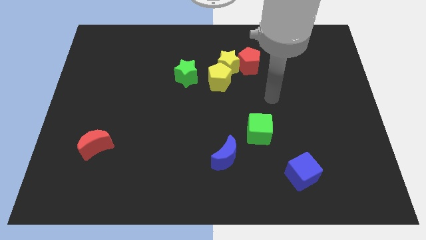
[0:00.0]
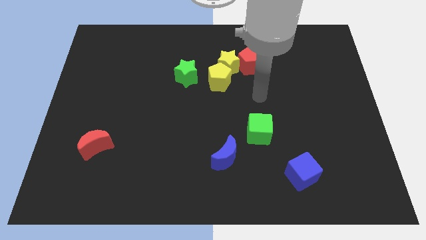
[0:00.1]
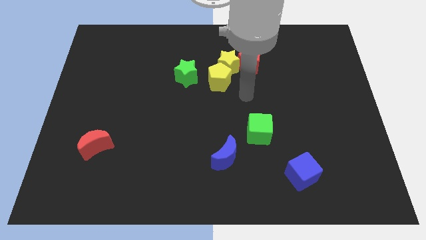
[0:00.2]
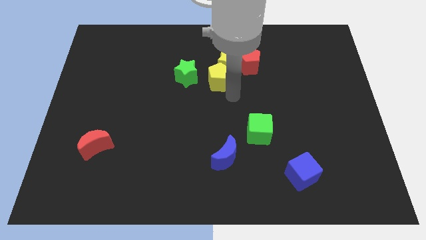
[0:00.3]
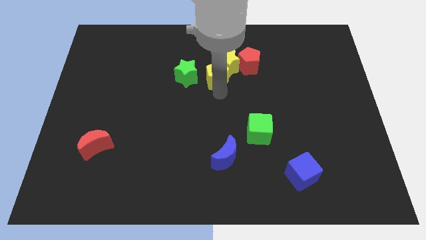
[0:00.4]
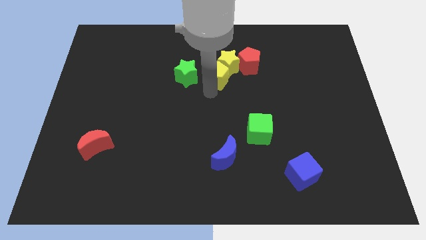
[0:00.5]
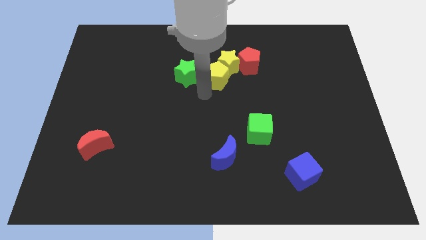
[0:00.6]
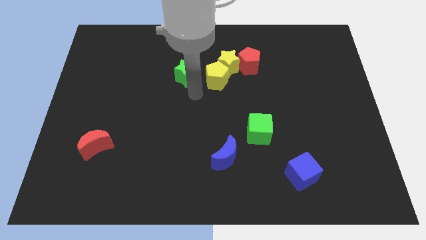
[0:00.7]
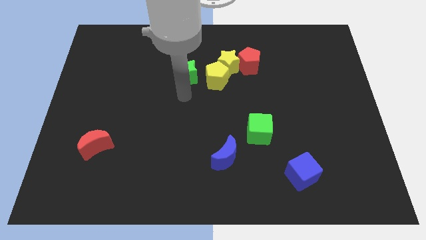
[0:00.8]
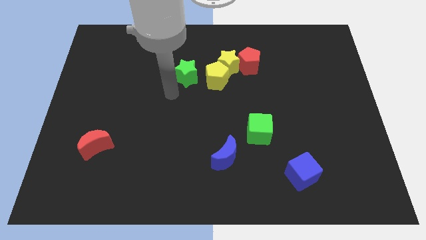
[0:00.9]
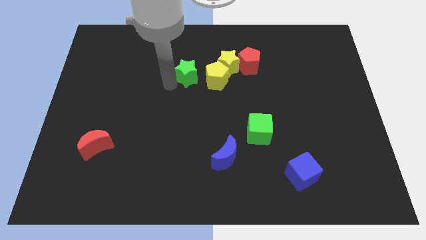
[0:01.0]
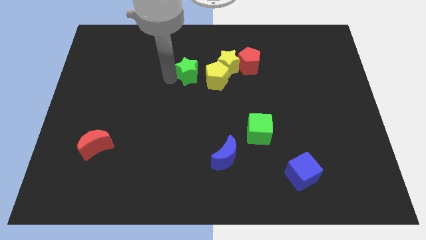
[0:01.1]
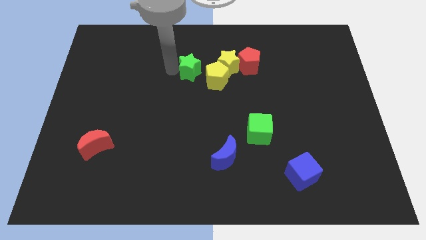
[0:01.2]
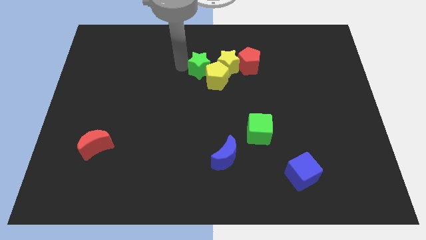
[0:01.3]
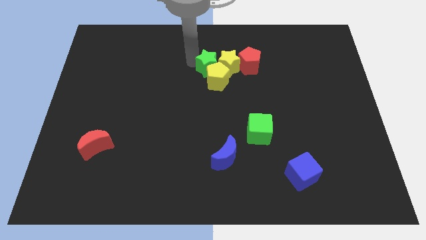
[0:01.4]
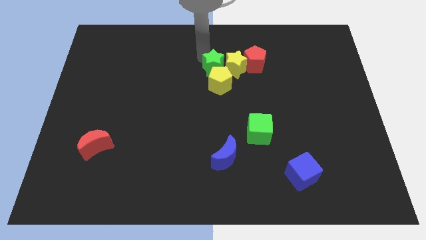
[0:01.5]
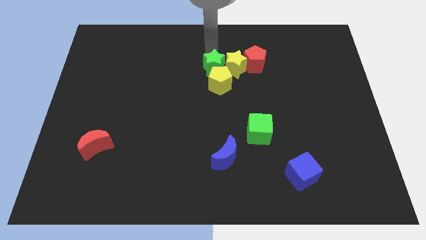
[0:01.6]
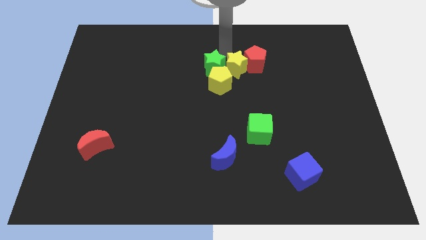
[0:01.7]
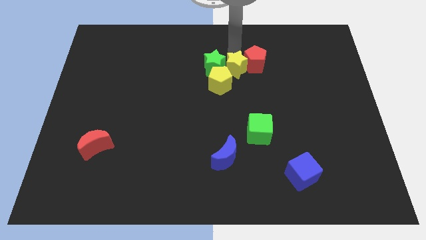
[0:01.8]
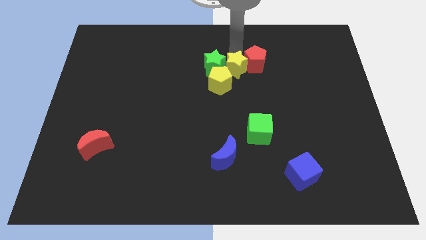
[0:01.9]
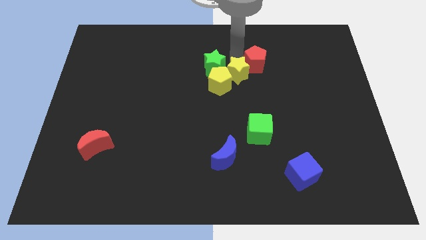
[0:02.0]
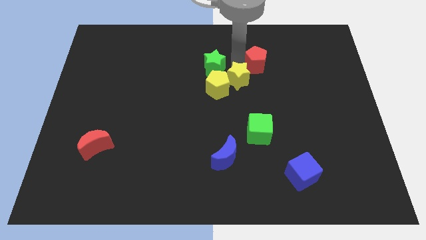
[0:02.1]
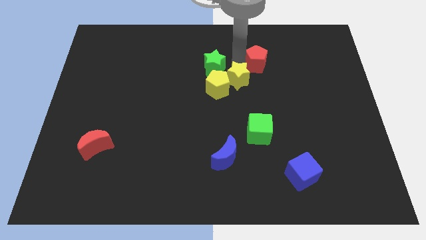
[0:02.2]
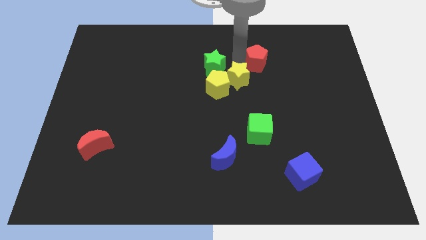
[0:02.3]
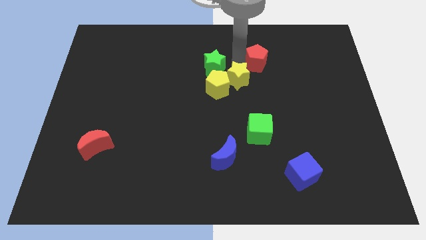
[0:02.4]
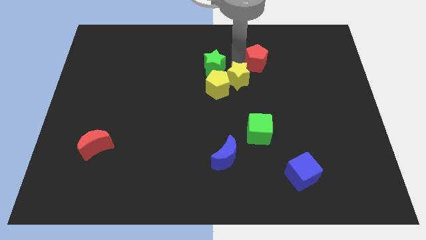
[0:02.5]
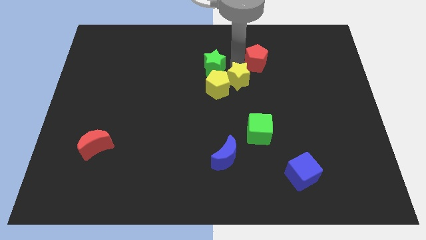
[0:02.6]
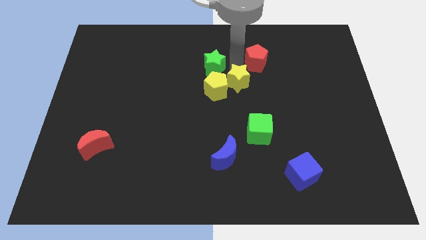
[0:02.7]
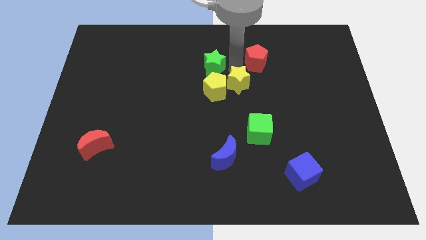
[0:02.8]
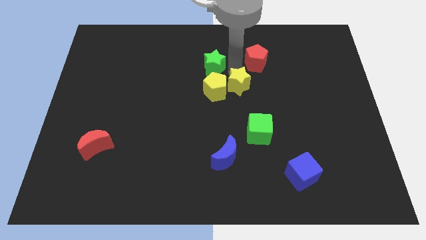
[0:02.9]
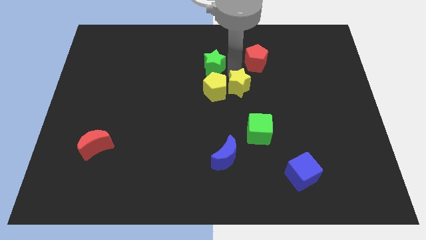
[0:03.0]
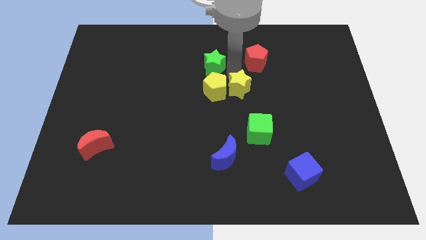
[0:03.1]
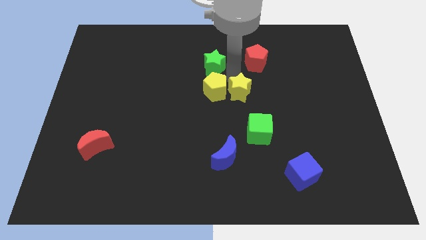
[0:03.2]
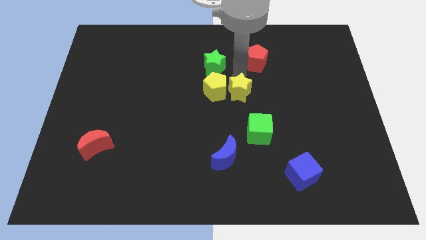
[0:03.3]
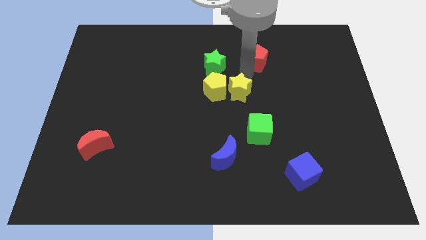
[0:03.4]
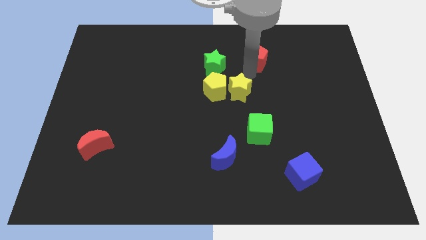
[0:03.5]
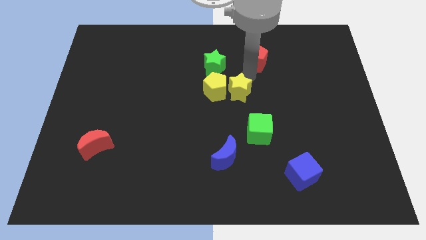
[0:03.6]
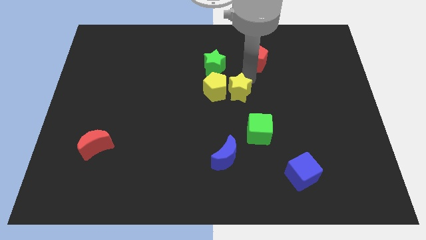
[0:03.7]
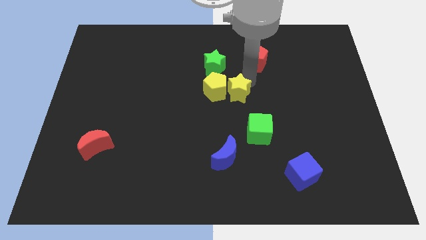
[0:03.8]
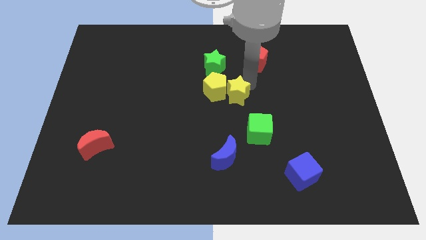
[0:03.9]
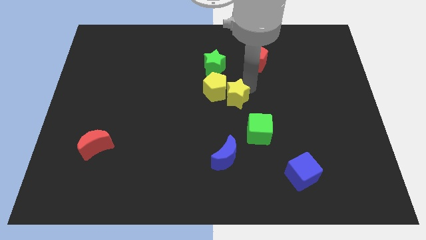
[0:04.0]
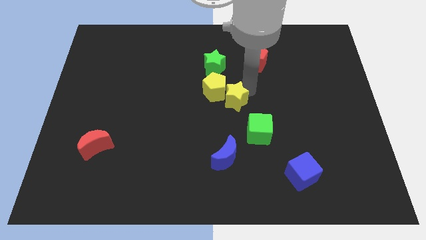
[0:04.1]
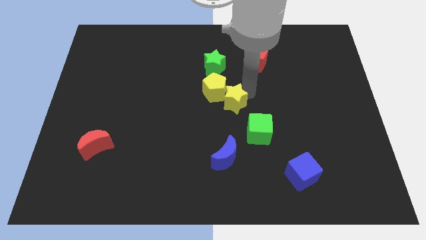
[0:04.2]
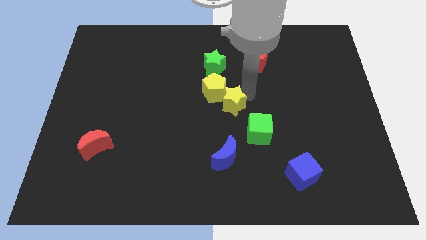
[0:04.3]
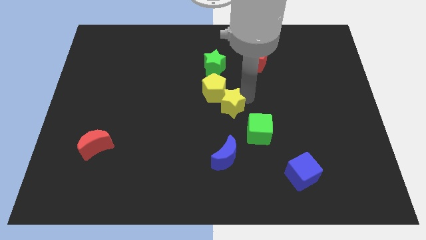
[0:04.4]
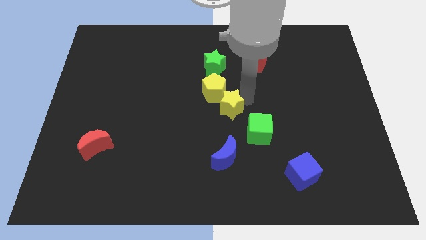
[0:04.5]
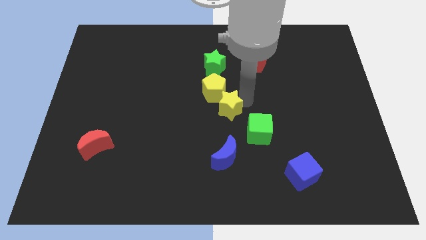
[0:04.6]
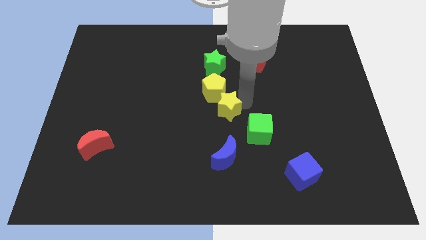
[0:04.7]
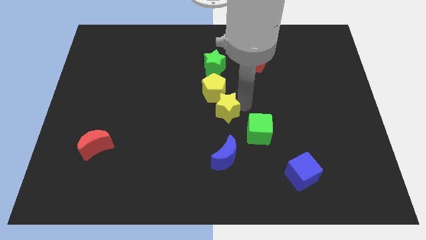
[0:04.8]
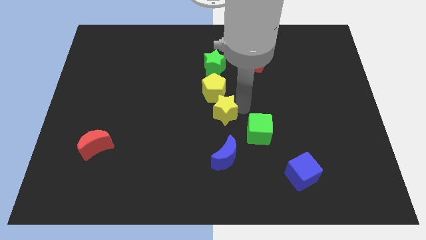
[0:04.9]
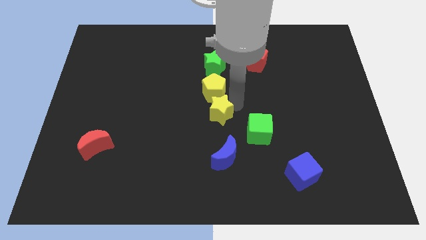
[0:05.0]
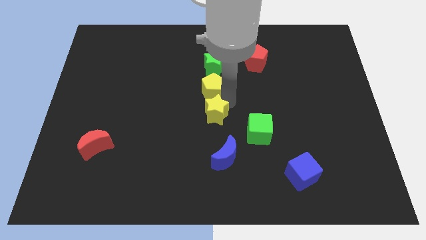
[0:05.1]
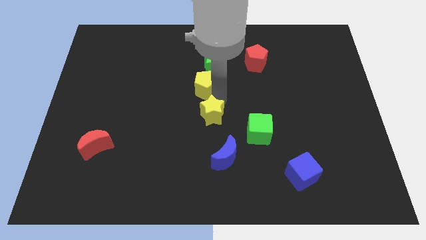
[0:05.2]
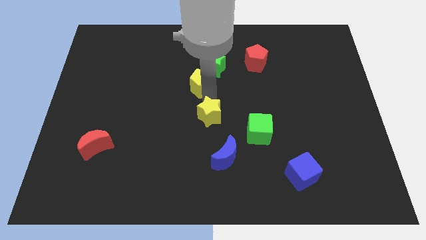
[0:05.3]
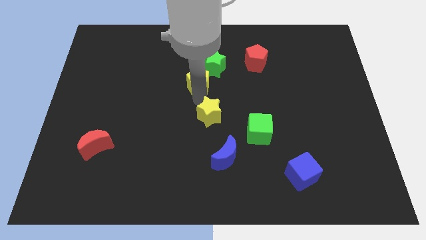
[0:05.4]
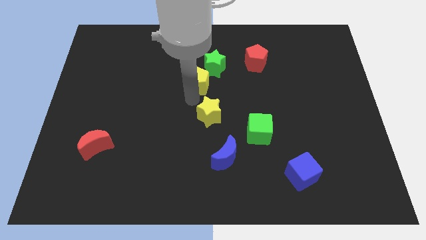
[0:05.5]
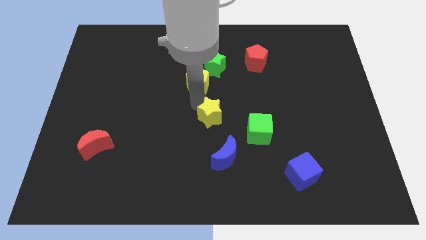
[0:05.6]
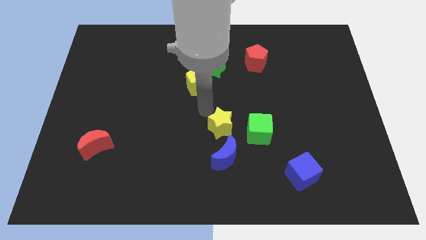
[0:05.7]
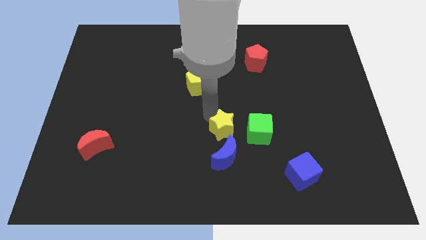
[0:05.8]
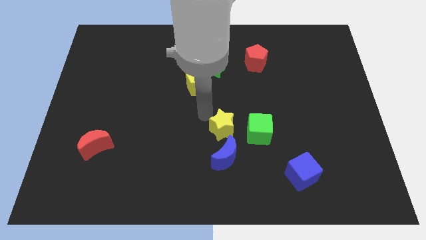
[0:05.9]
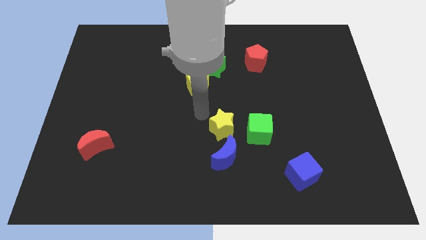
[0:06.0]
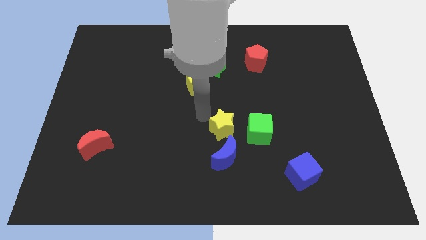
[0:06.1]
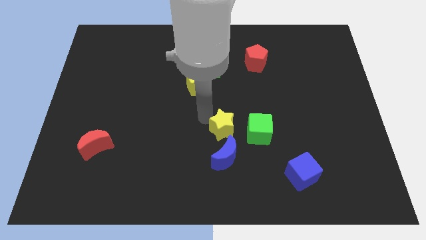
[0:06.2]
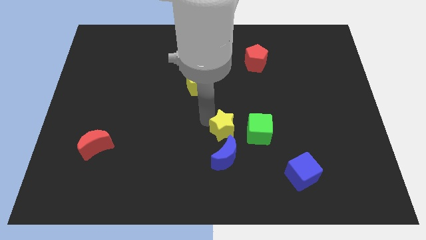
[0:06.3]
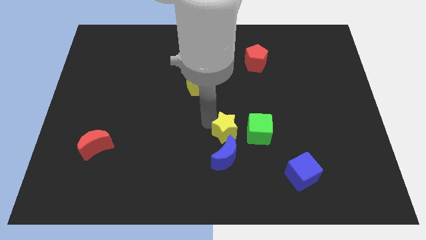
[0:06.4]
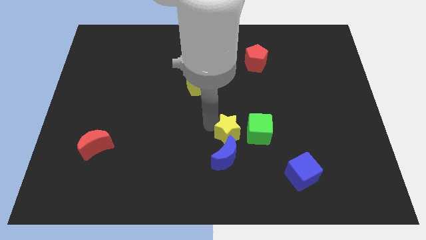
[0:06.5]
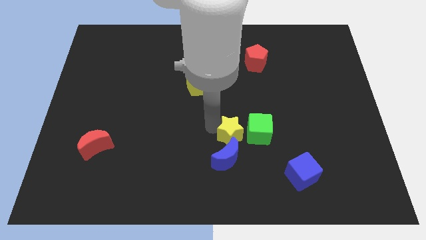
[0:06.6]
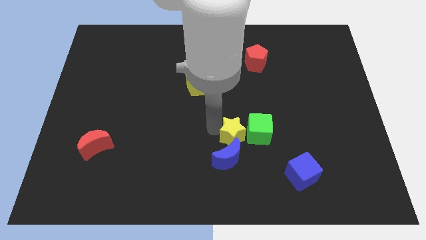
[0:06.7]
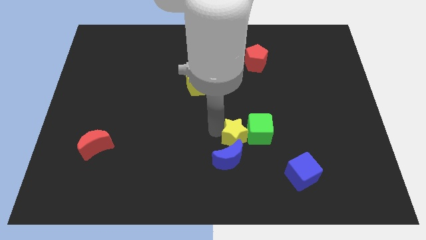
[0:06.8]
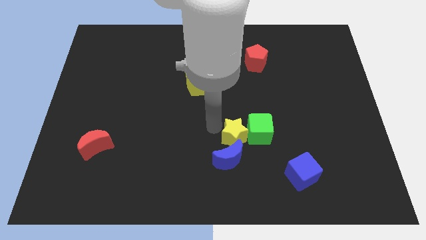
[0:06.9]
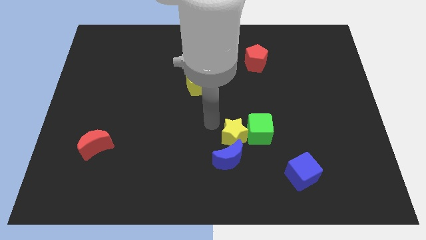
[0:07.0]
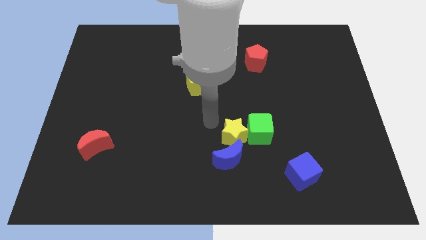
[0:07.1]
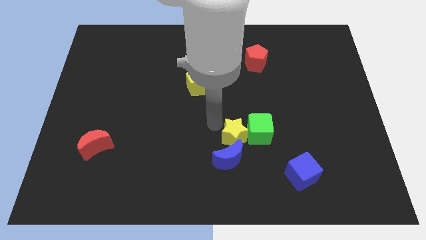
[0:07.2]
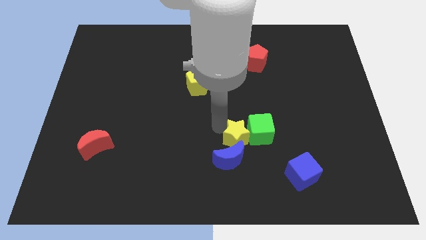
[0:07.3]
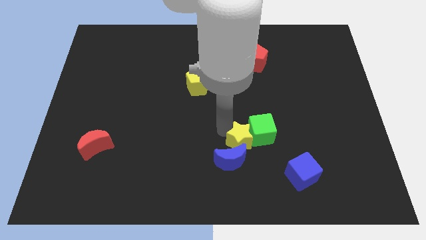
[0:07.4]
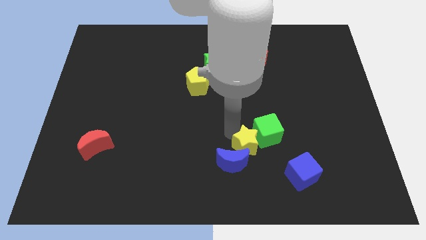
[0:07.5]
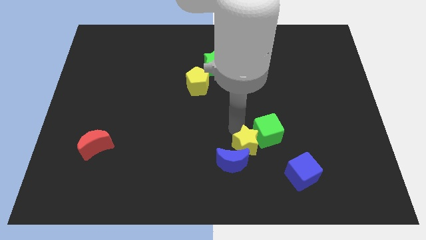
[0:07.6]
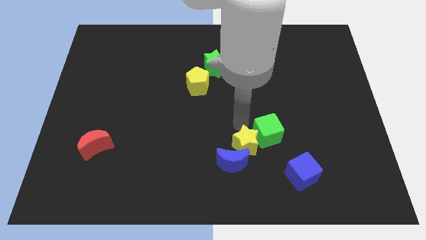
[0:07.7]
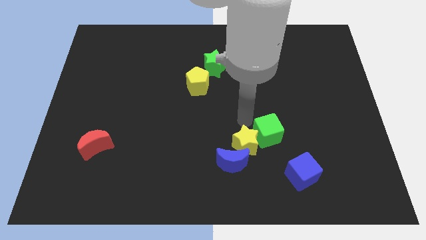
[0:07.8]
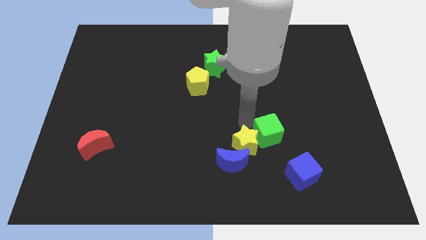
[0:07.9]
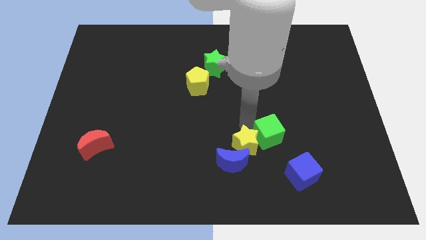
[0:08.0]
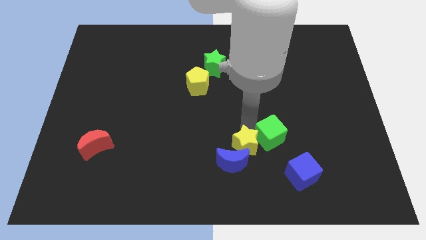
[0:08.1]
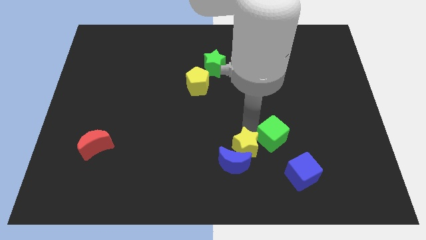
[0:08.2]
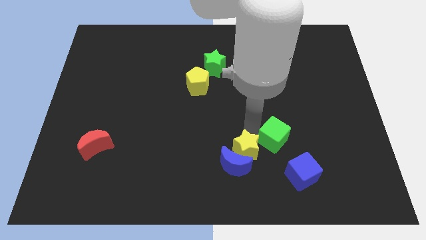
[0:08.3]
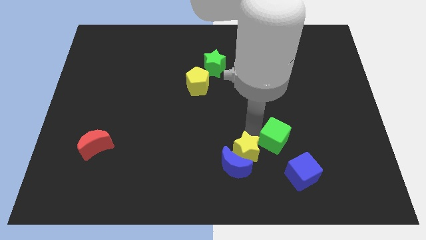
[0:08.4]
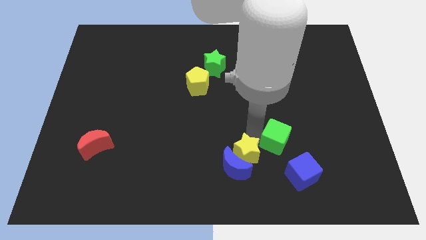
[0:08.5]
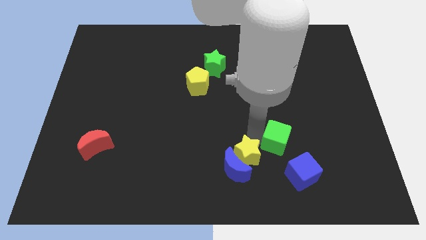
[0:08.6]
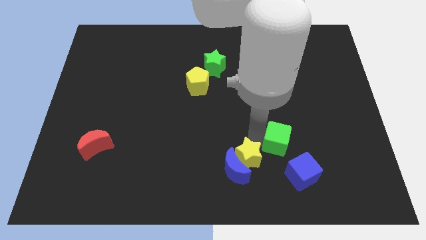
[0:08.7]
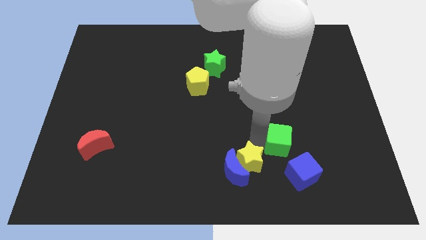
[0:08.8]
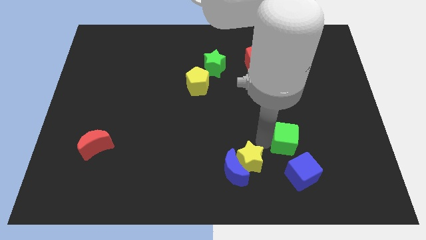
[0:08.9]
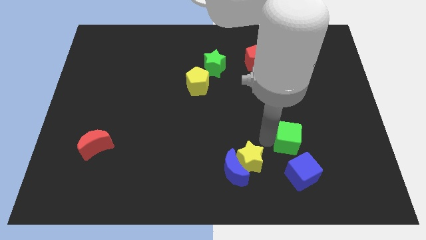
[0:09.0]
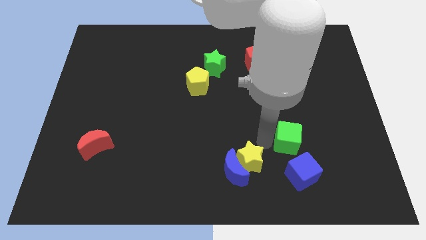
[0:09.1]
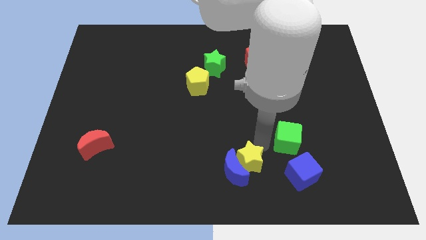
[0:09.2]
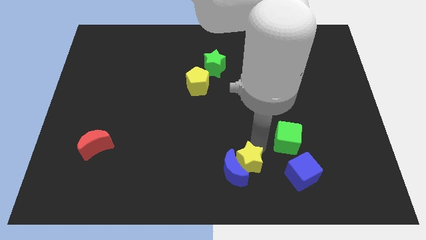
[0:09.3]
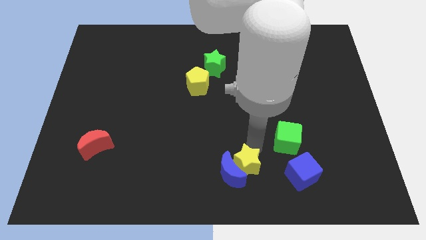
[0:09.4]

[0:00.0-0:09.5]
put the yellow star to the bottom side
